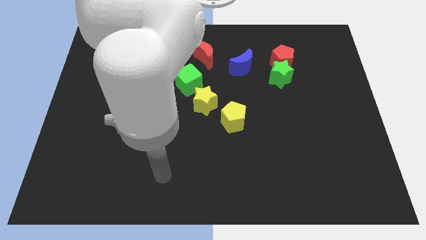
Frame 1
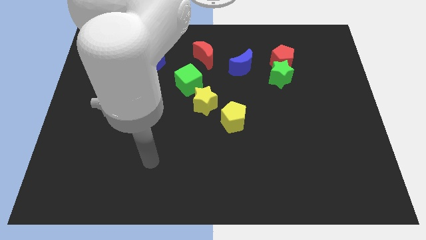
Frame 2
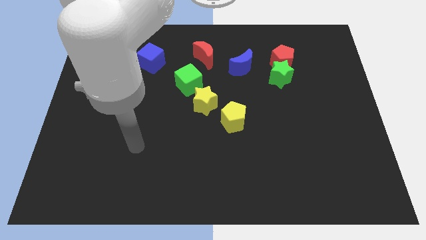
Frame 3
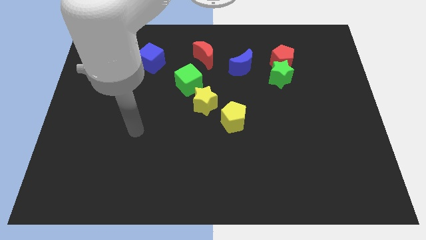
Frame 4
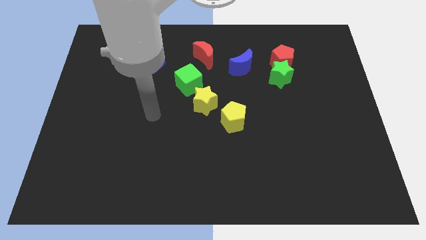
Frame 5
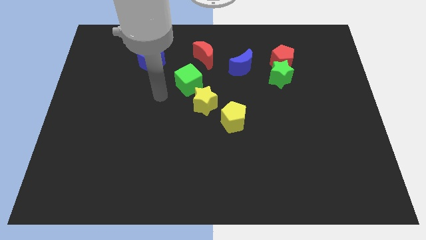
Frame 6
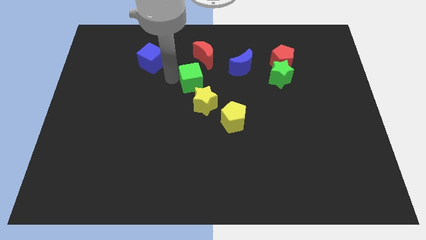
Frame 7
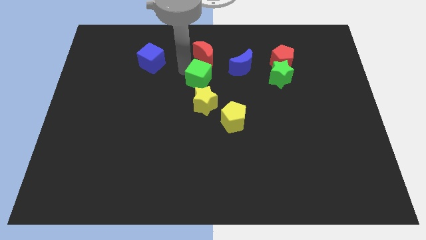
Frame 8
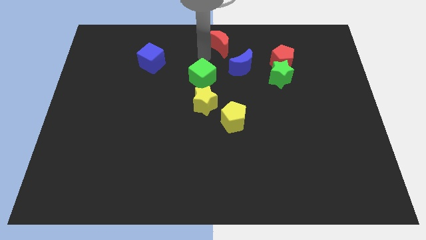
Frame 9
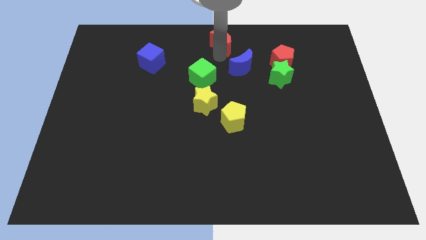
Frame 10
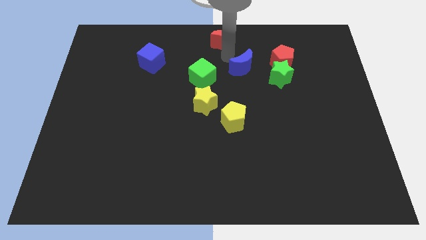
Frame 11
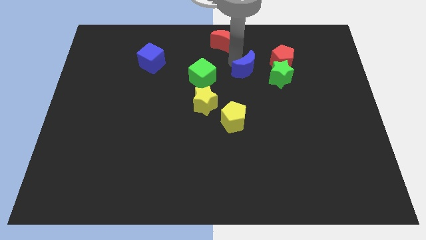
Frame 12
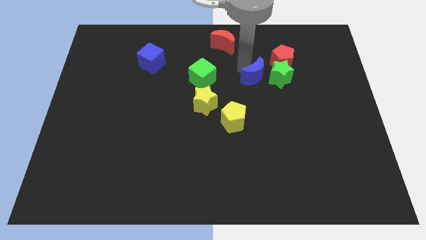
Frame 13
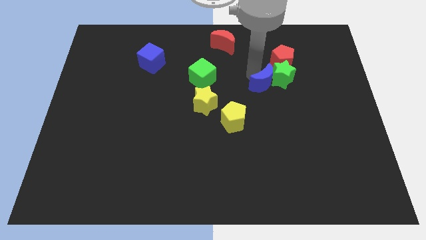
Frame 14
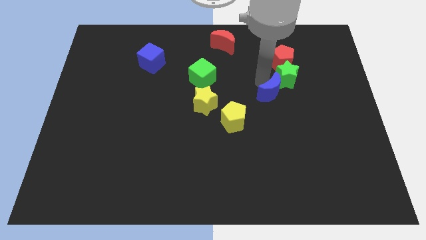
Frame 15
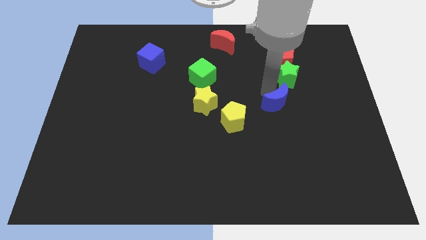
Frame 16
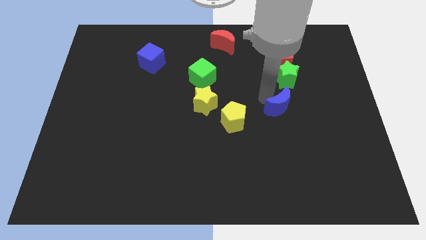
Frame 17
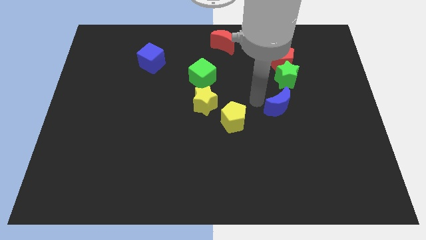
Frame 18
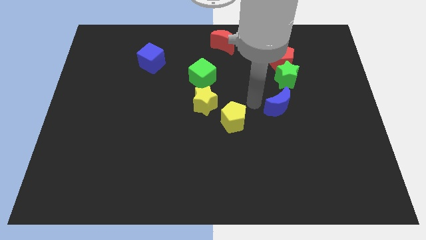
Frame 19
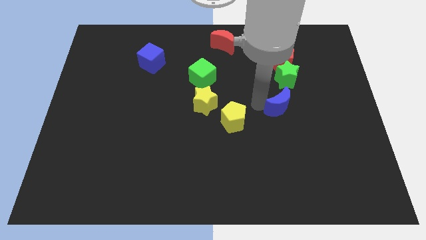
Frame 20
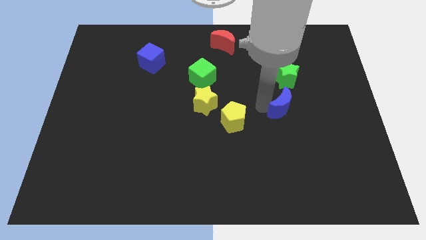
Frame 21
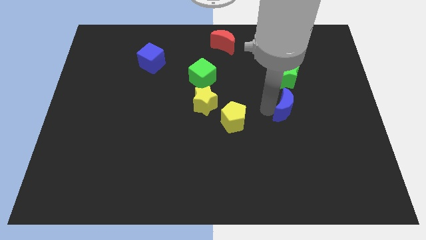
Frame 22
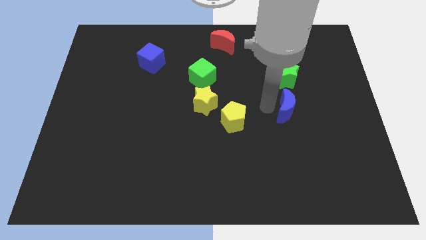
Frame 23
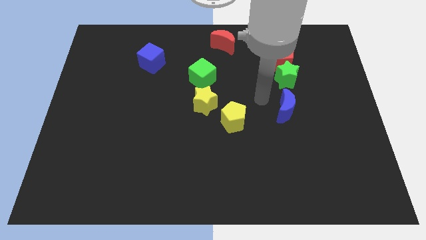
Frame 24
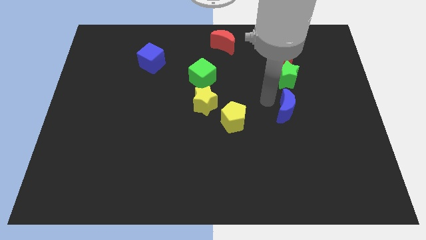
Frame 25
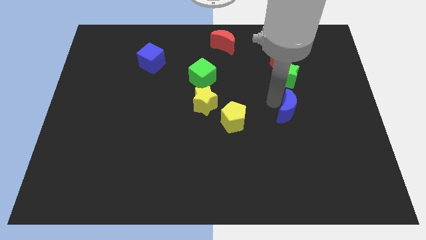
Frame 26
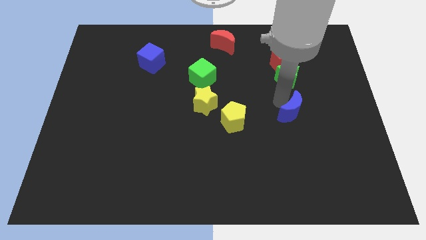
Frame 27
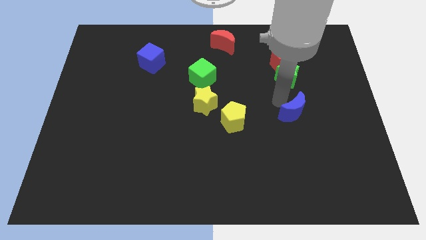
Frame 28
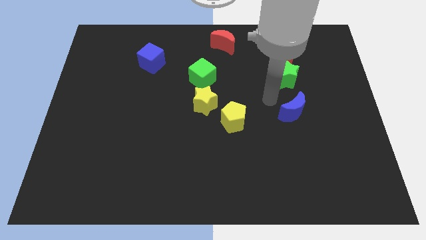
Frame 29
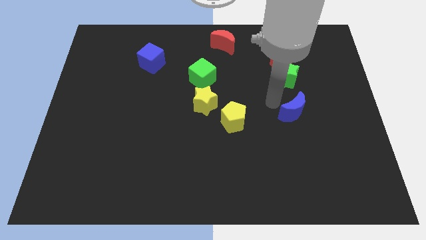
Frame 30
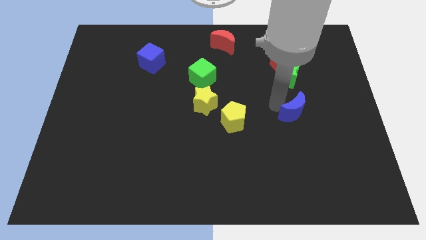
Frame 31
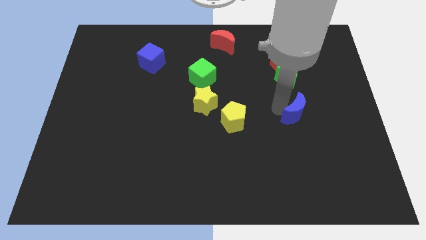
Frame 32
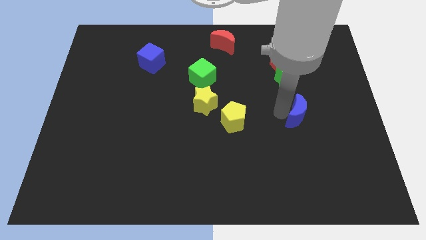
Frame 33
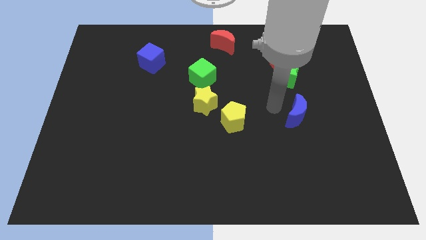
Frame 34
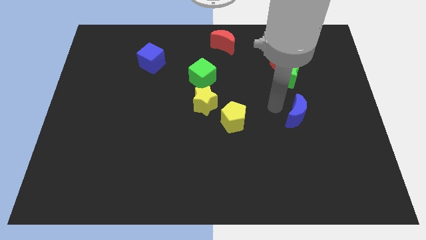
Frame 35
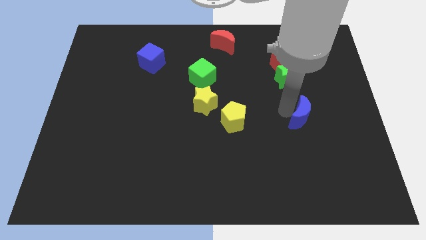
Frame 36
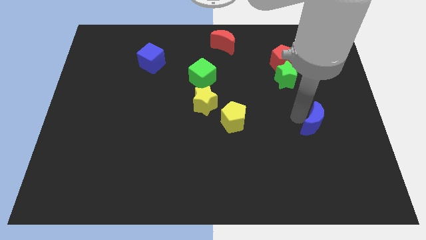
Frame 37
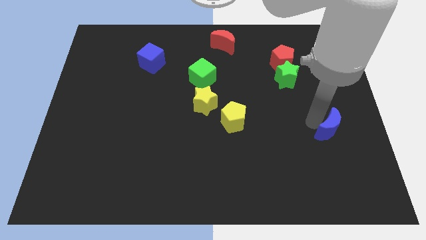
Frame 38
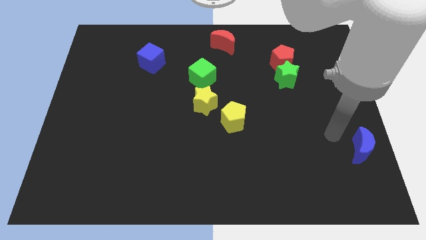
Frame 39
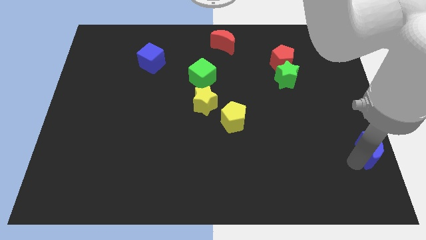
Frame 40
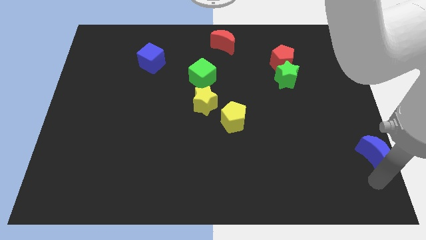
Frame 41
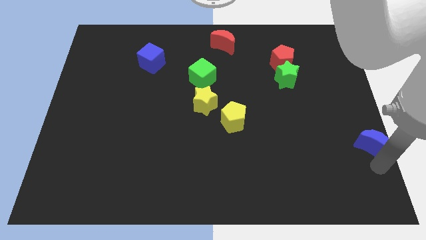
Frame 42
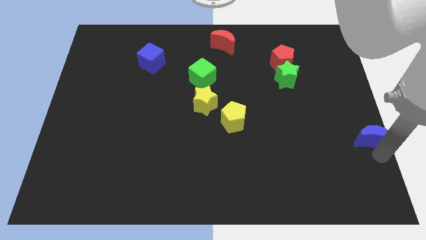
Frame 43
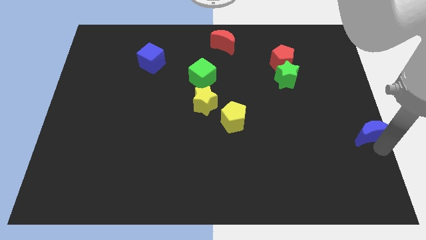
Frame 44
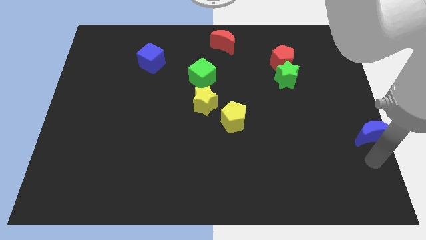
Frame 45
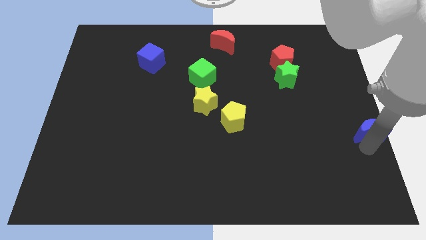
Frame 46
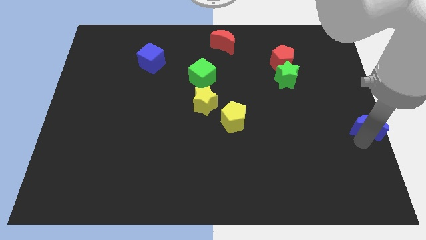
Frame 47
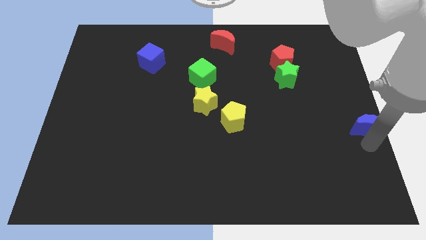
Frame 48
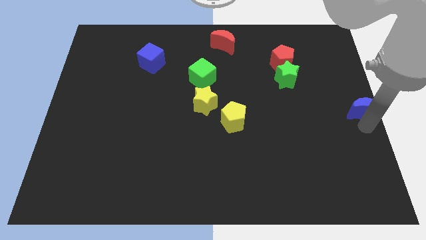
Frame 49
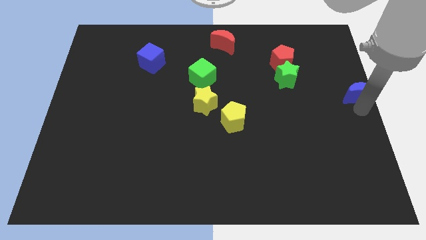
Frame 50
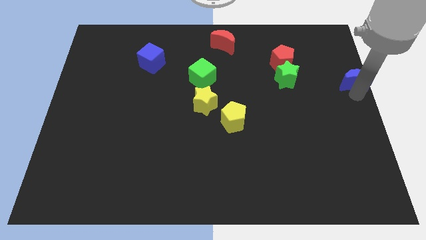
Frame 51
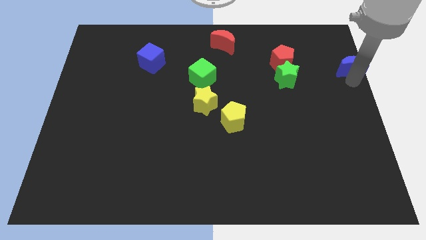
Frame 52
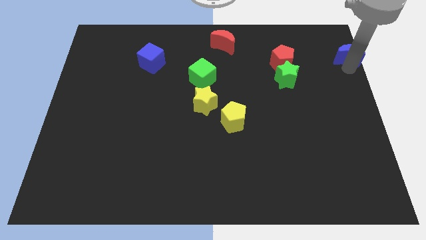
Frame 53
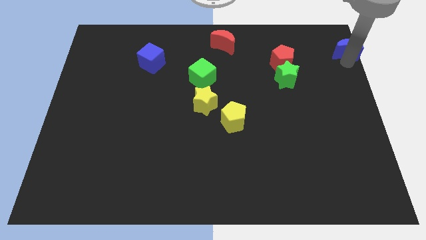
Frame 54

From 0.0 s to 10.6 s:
push the blue moon to the upper right corner

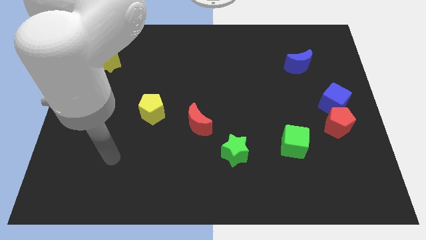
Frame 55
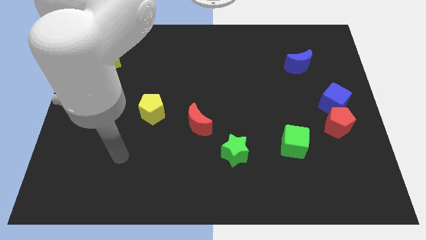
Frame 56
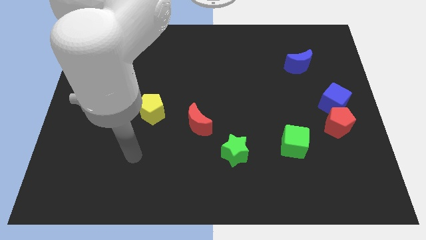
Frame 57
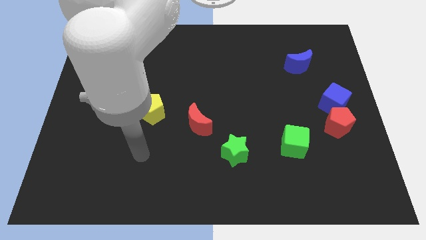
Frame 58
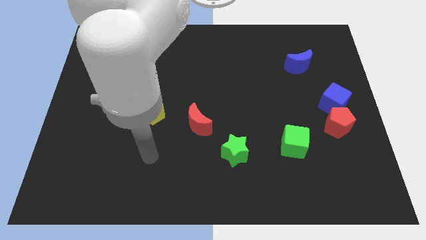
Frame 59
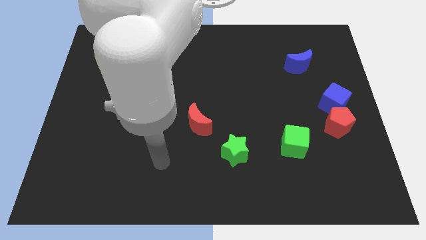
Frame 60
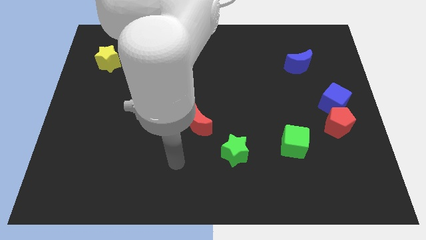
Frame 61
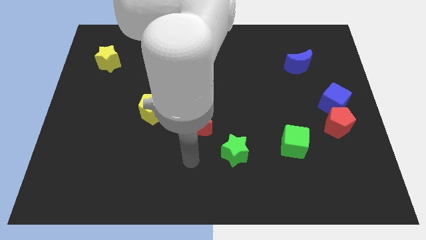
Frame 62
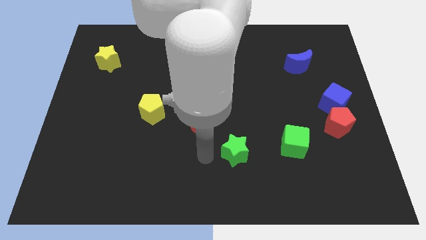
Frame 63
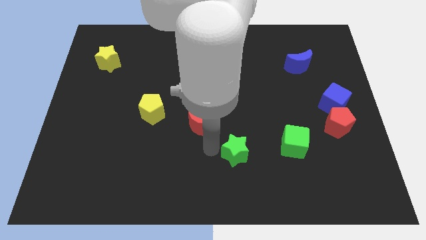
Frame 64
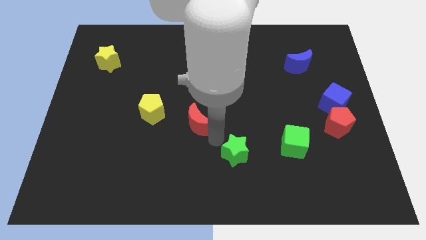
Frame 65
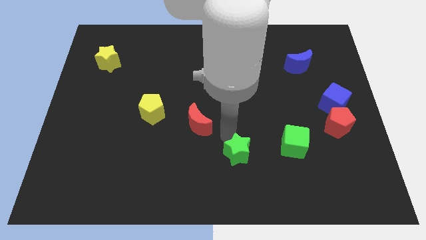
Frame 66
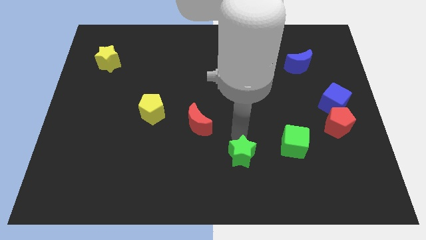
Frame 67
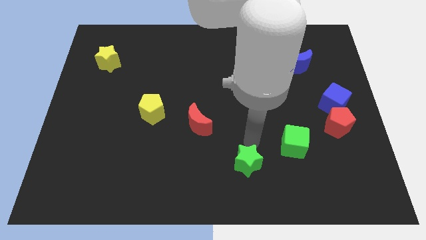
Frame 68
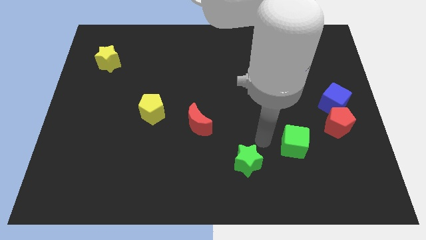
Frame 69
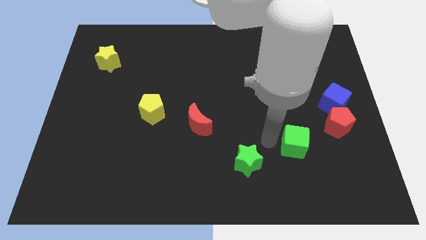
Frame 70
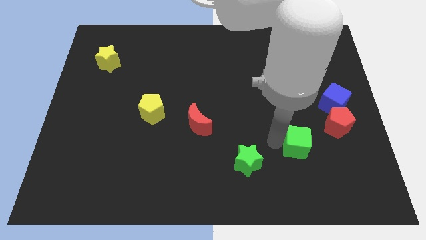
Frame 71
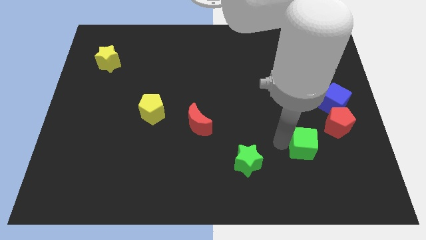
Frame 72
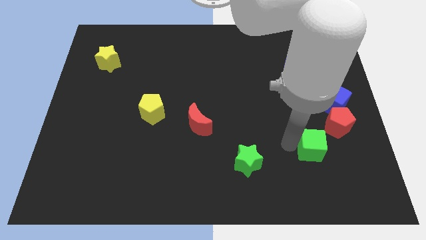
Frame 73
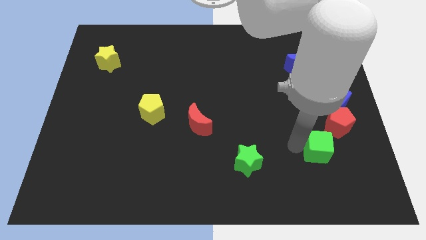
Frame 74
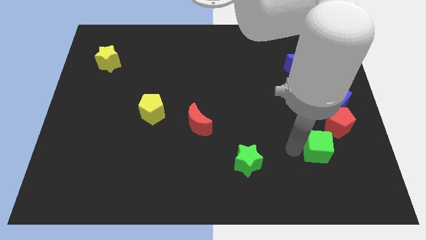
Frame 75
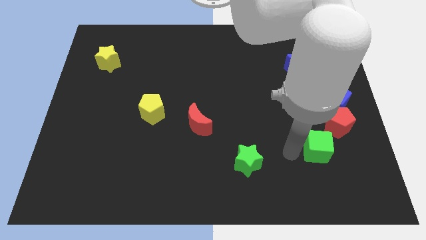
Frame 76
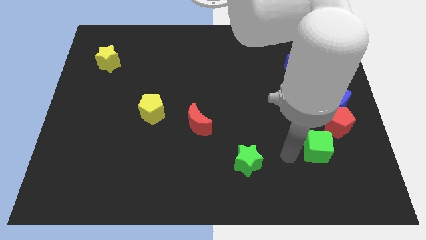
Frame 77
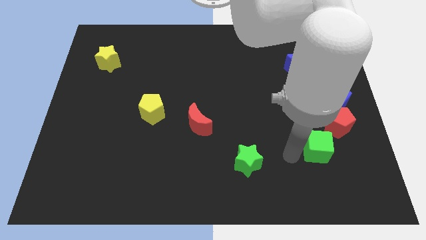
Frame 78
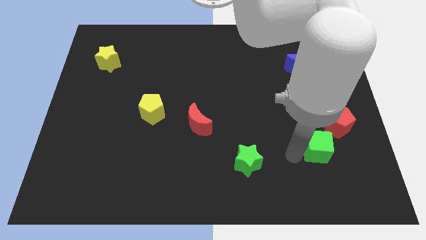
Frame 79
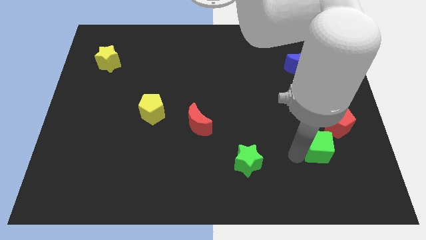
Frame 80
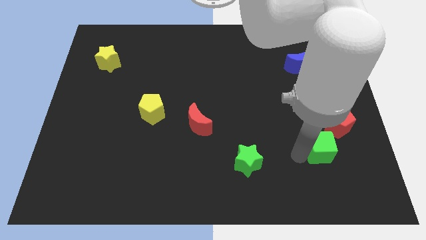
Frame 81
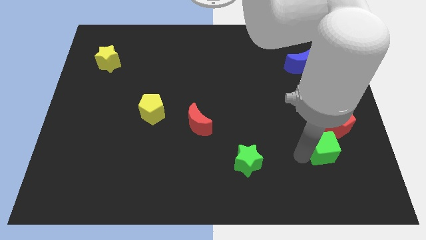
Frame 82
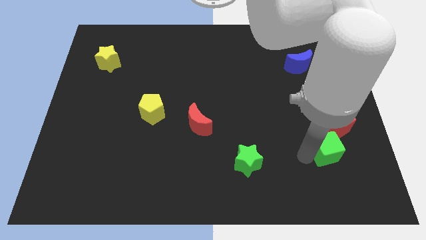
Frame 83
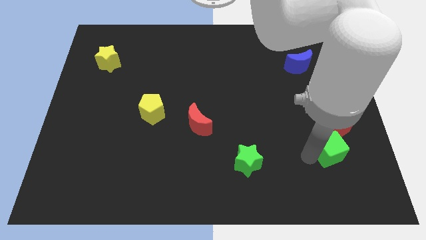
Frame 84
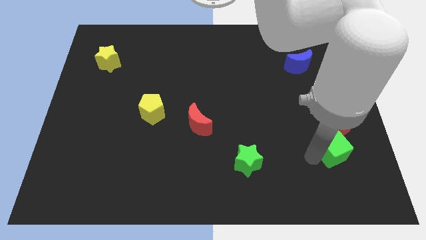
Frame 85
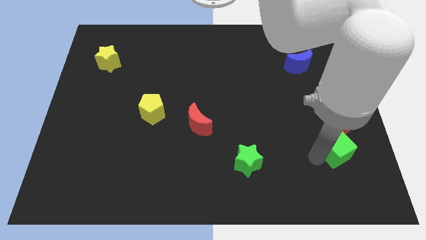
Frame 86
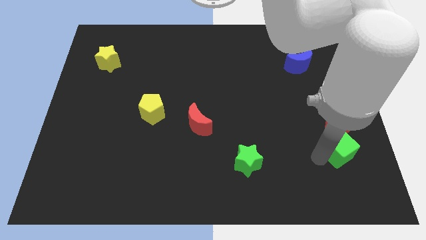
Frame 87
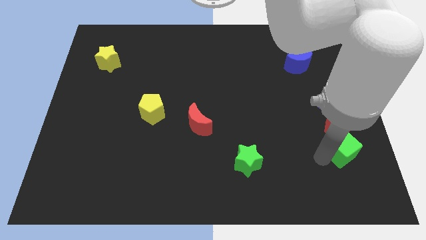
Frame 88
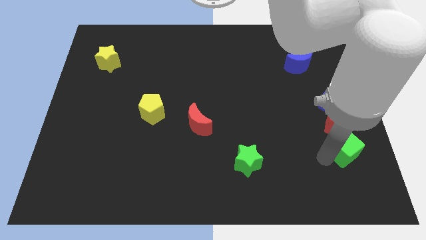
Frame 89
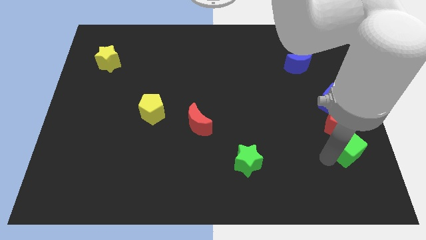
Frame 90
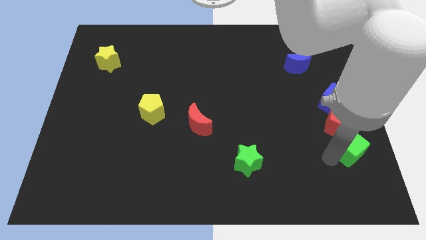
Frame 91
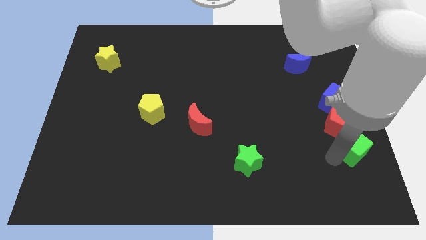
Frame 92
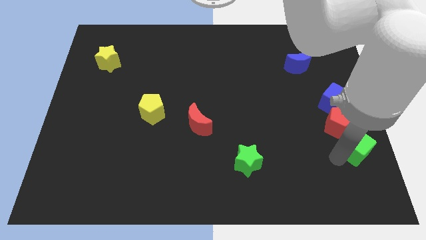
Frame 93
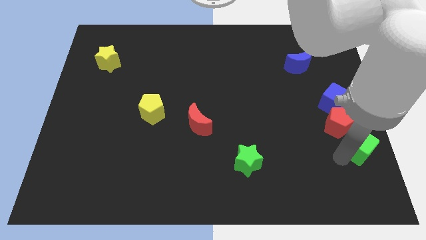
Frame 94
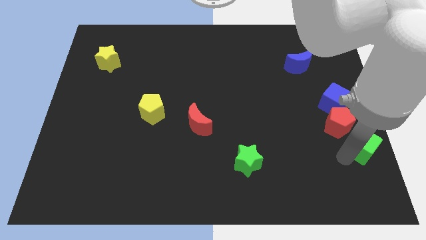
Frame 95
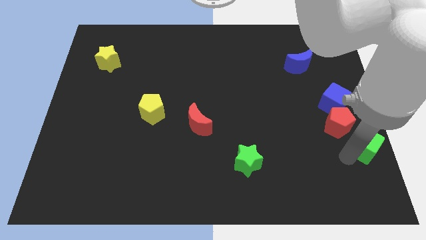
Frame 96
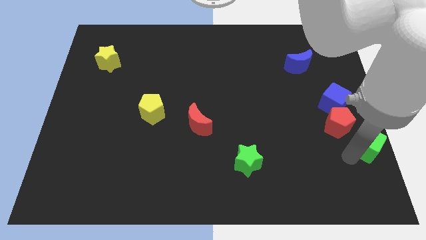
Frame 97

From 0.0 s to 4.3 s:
slide the green cube to the right side of the board
